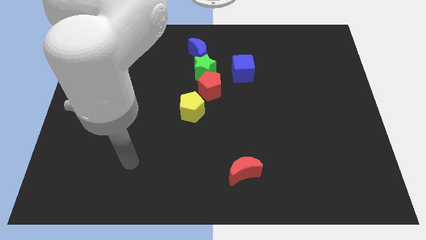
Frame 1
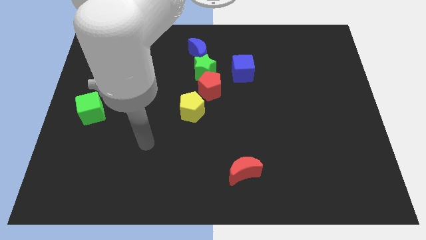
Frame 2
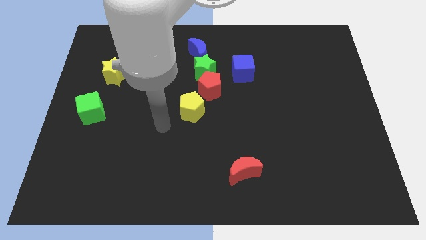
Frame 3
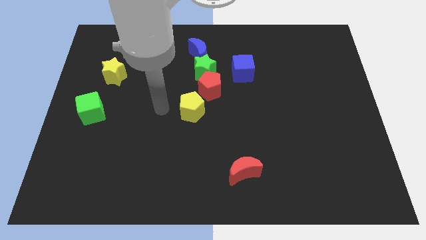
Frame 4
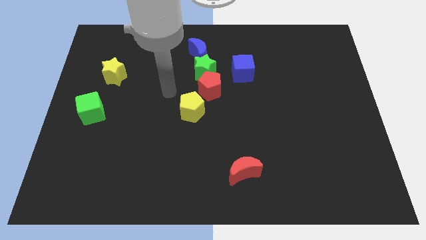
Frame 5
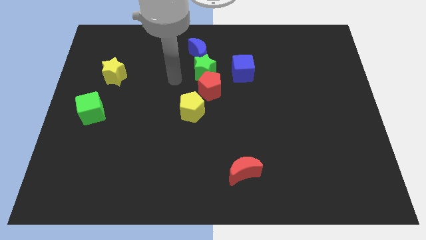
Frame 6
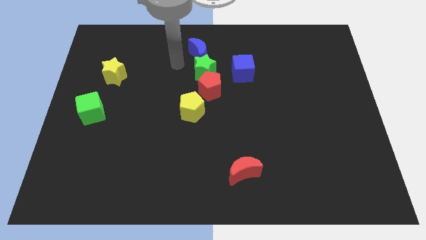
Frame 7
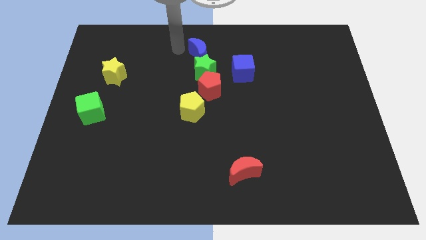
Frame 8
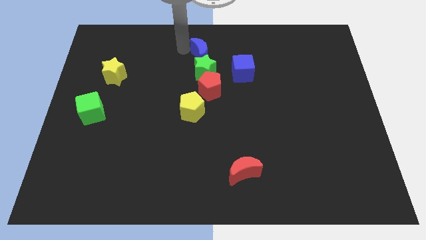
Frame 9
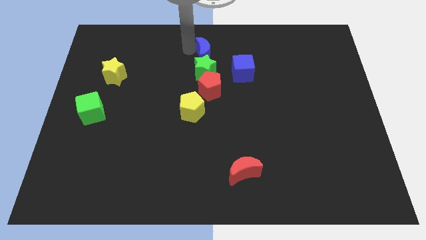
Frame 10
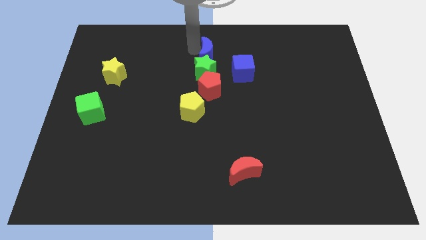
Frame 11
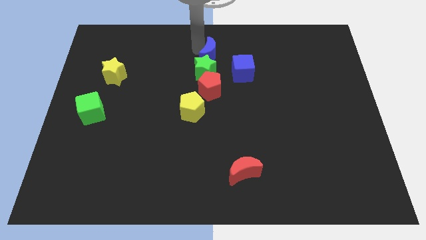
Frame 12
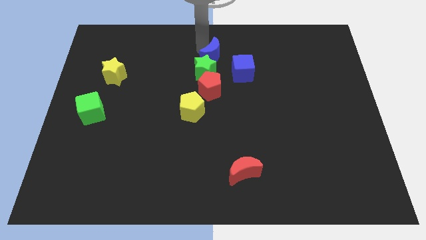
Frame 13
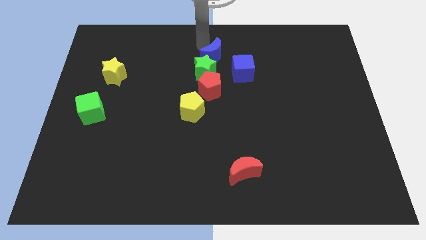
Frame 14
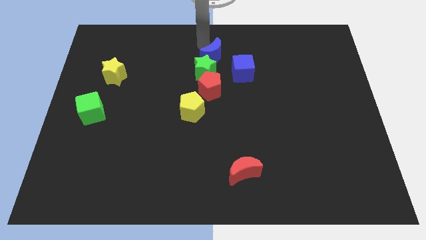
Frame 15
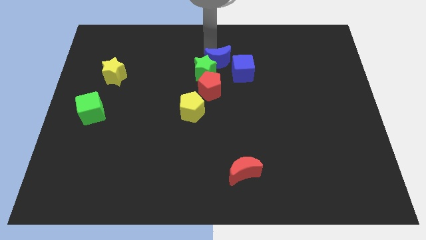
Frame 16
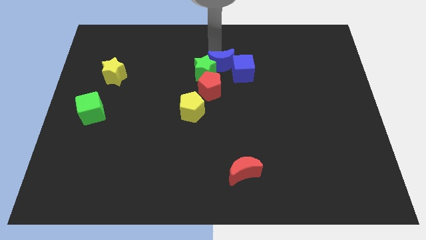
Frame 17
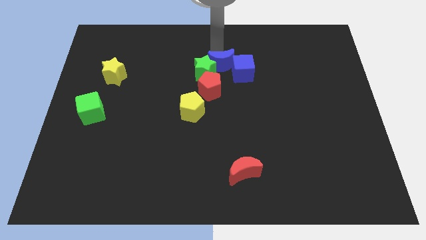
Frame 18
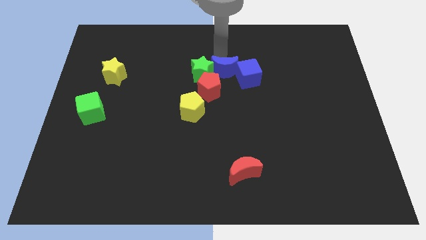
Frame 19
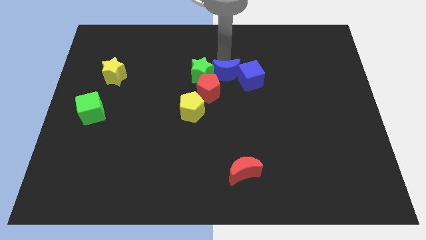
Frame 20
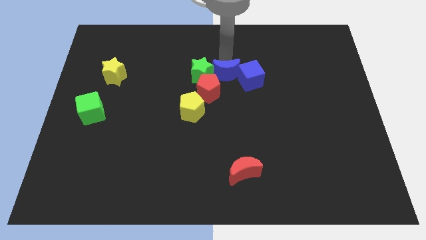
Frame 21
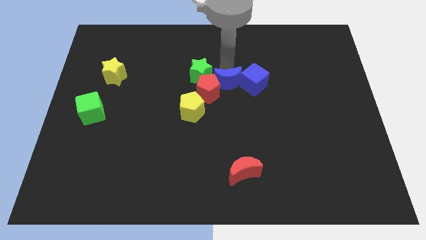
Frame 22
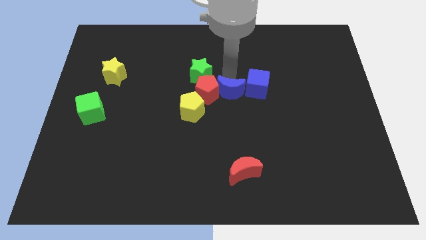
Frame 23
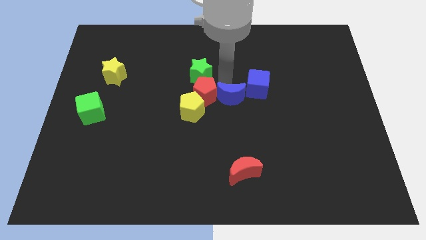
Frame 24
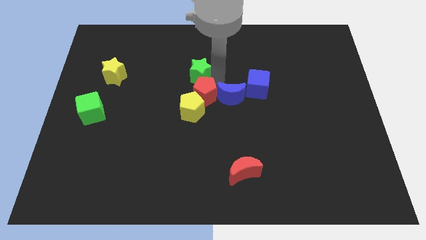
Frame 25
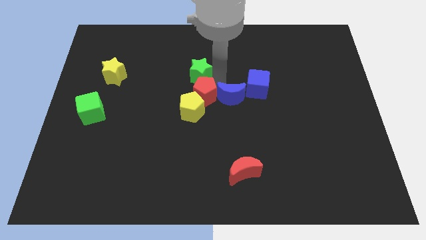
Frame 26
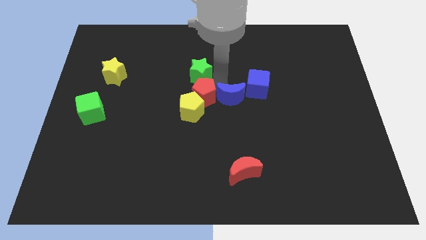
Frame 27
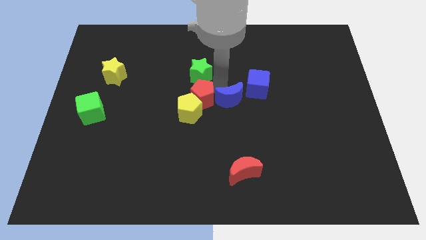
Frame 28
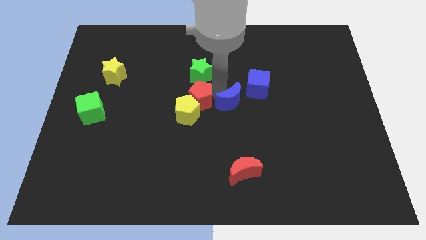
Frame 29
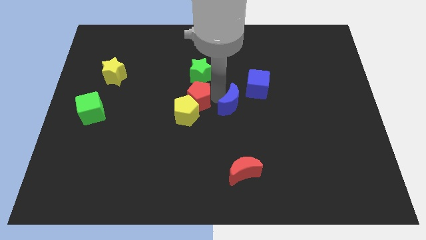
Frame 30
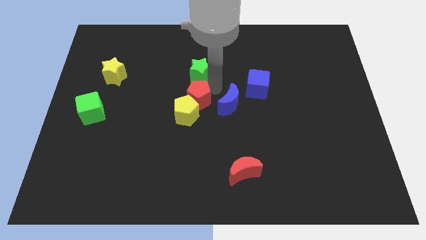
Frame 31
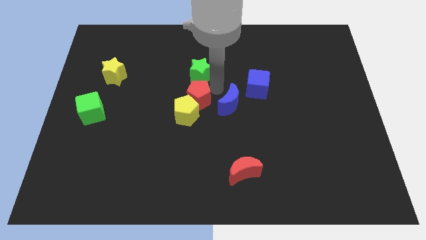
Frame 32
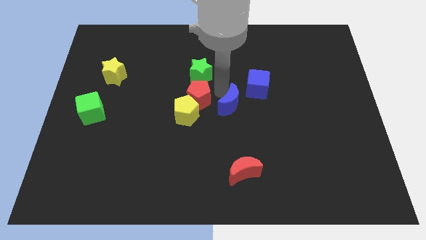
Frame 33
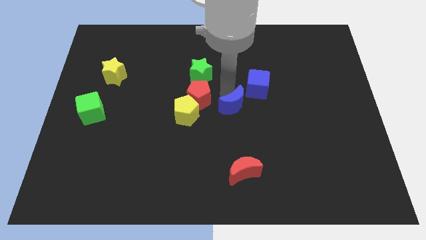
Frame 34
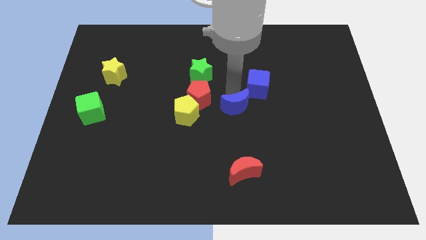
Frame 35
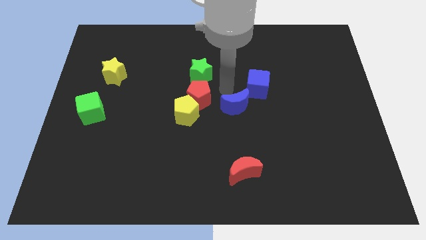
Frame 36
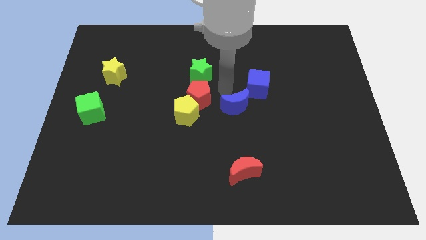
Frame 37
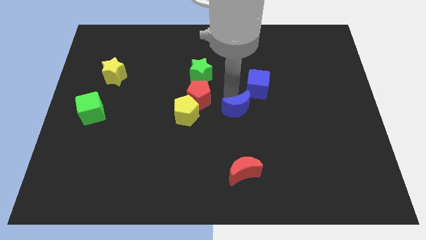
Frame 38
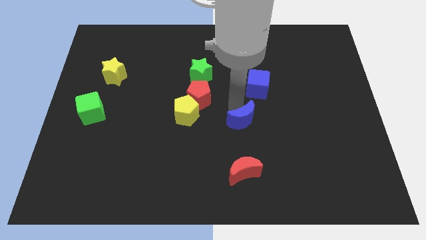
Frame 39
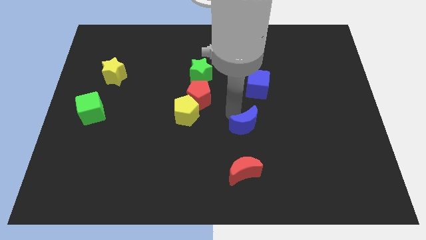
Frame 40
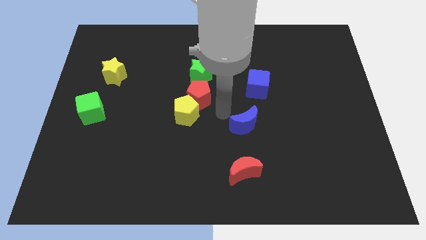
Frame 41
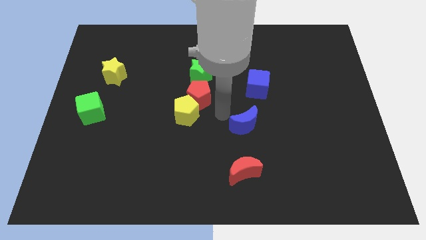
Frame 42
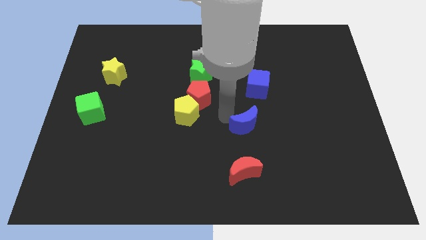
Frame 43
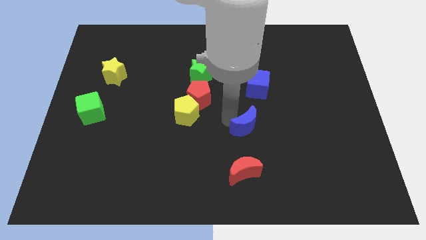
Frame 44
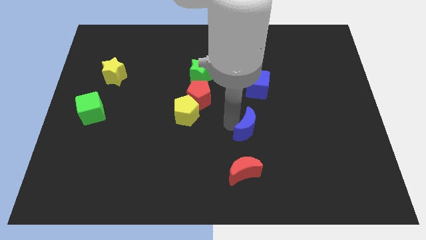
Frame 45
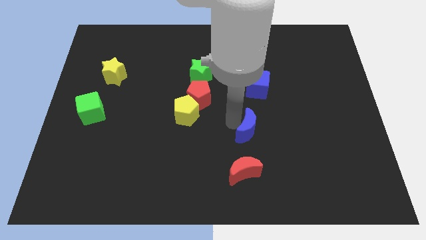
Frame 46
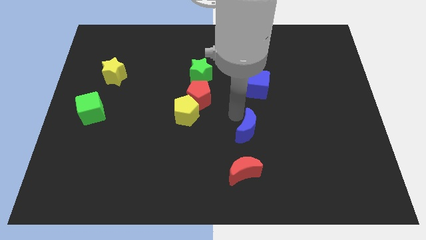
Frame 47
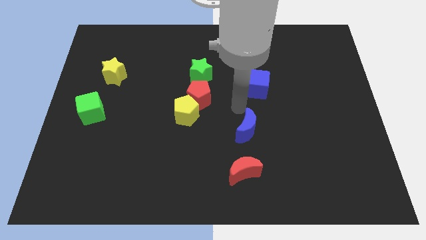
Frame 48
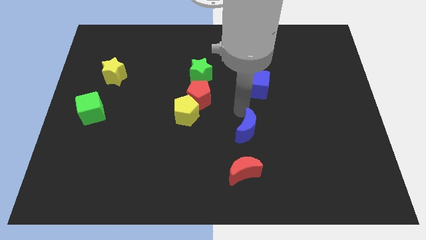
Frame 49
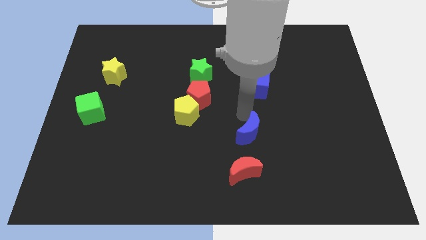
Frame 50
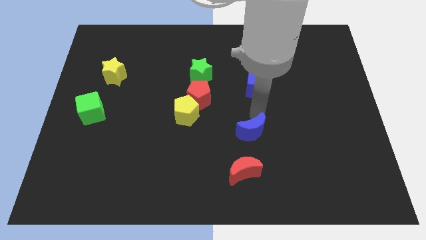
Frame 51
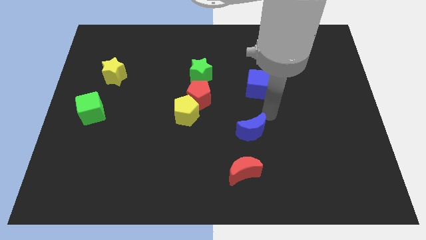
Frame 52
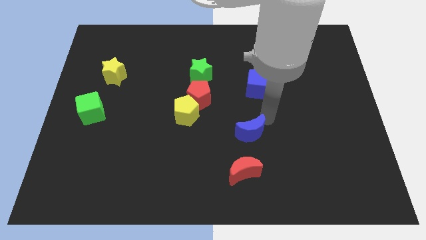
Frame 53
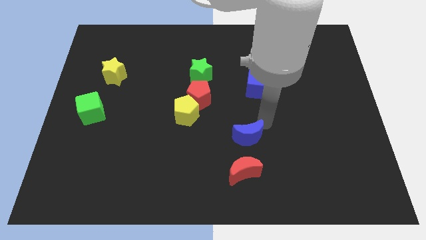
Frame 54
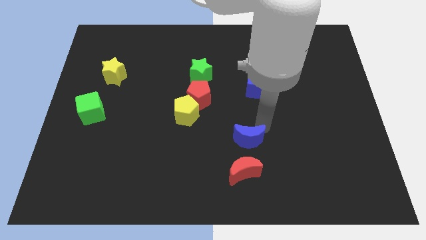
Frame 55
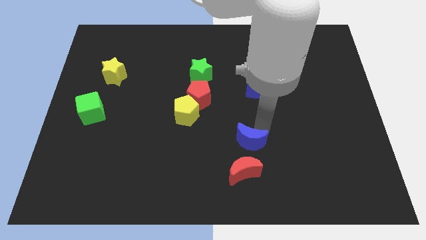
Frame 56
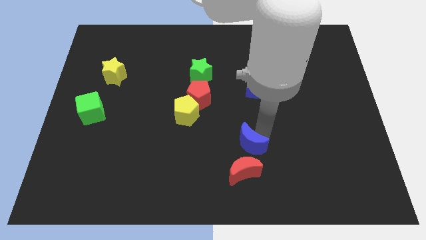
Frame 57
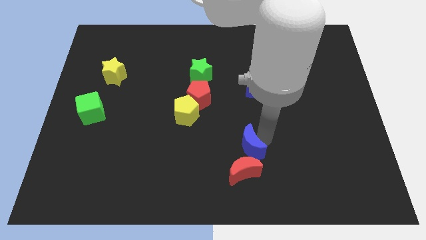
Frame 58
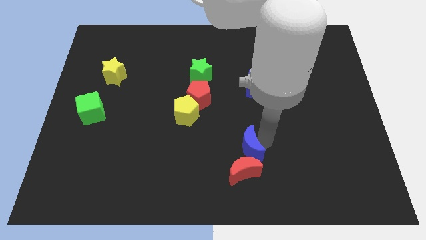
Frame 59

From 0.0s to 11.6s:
slide the blue moon next to the red moon

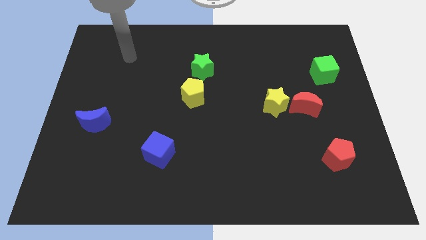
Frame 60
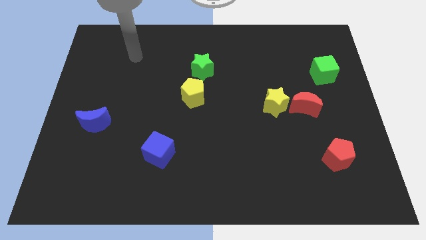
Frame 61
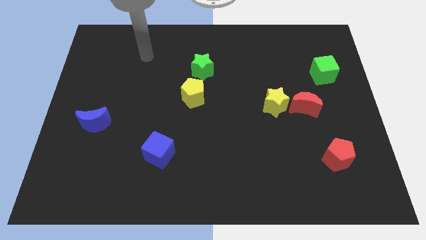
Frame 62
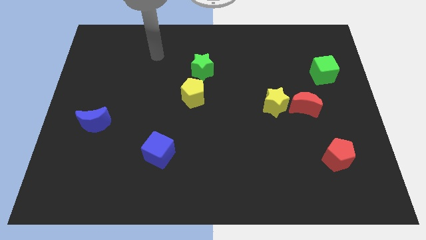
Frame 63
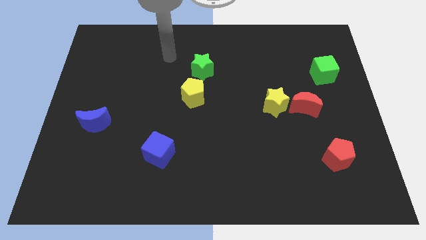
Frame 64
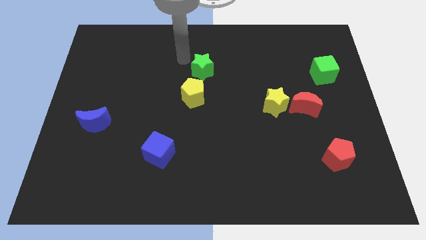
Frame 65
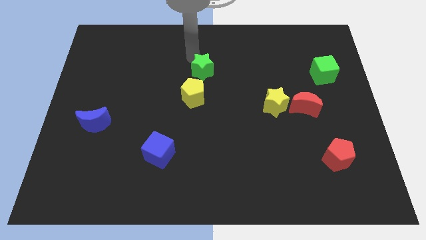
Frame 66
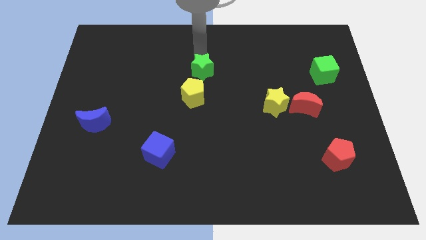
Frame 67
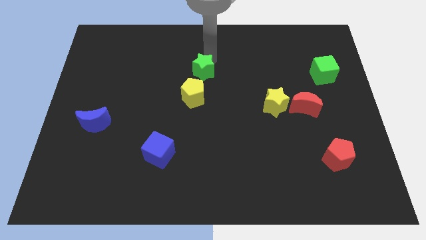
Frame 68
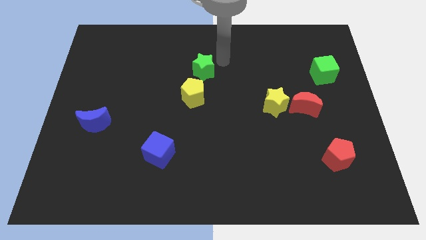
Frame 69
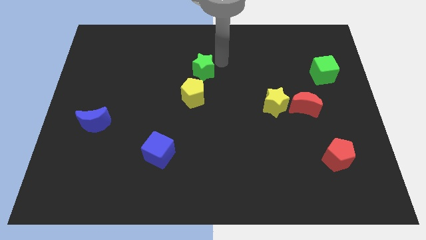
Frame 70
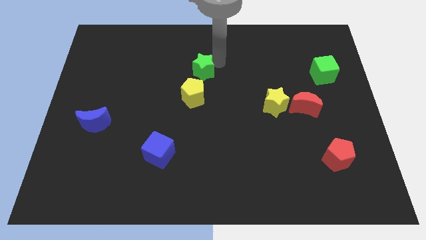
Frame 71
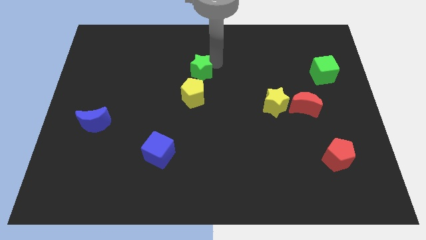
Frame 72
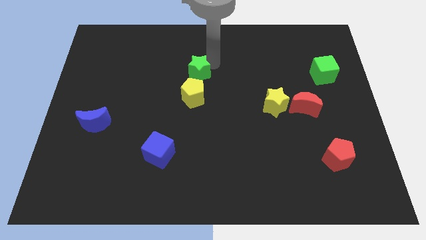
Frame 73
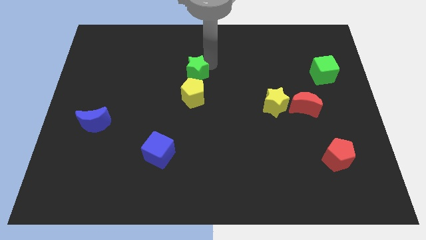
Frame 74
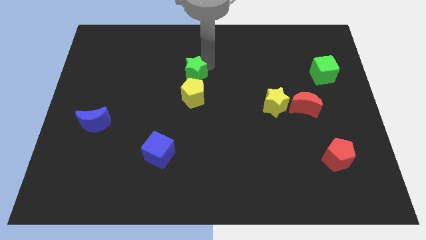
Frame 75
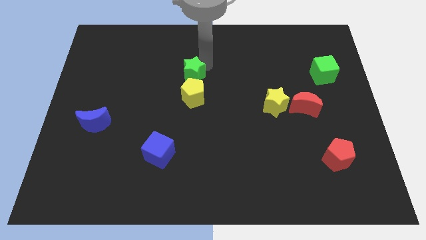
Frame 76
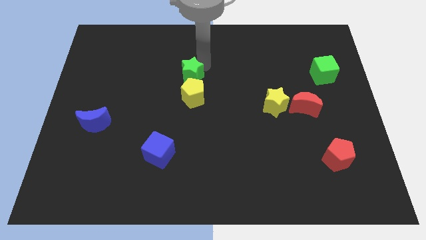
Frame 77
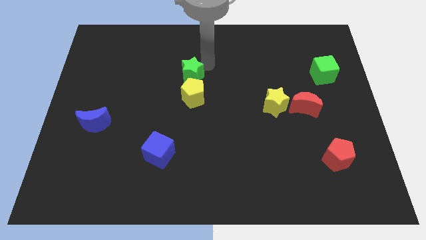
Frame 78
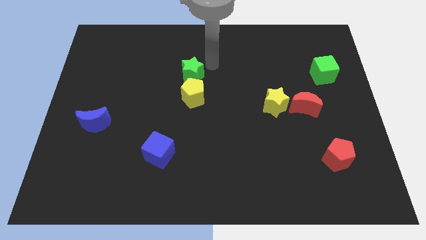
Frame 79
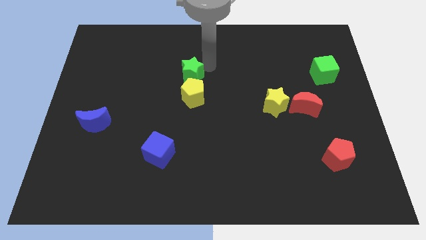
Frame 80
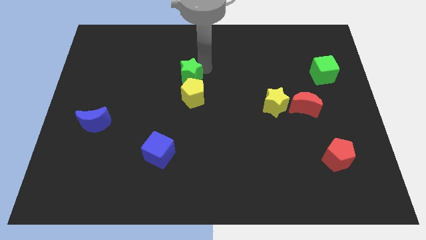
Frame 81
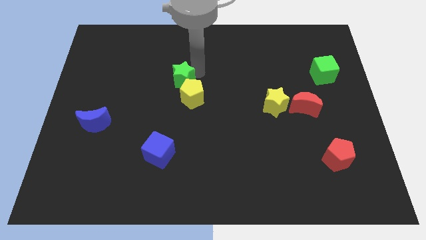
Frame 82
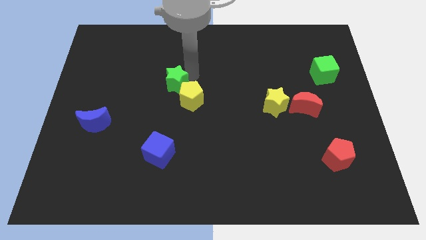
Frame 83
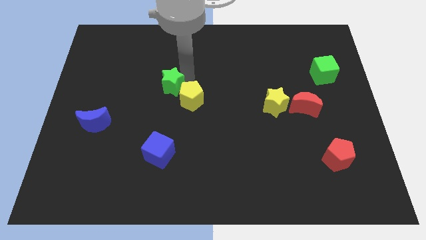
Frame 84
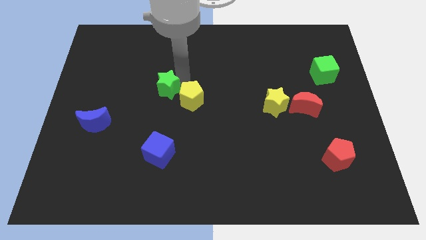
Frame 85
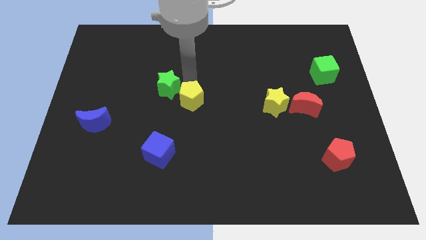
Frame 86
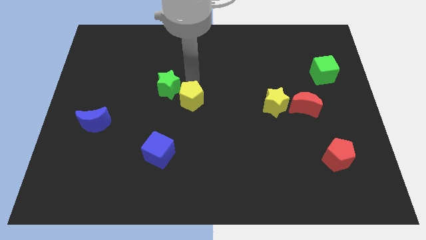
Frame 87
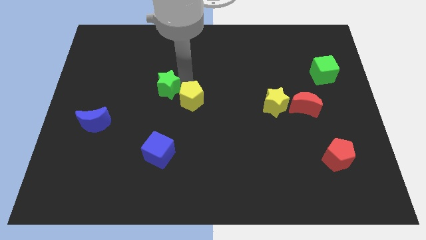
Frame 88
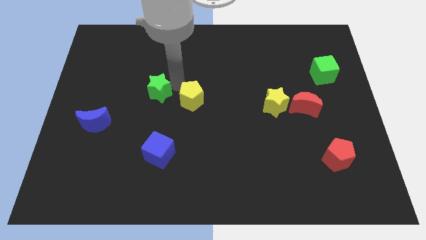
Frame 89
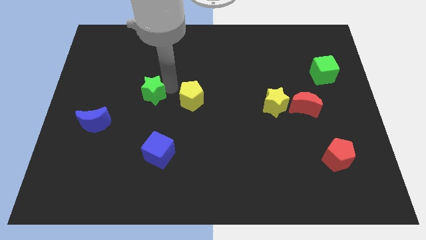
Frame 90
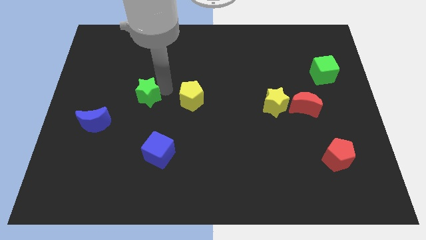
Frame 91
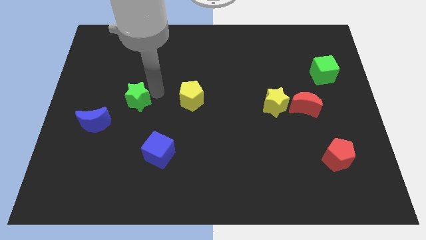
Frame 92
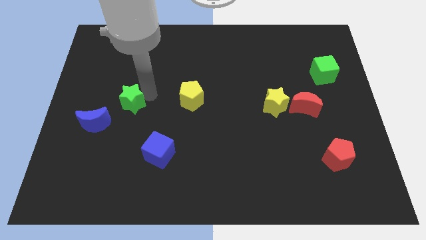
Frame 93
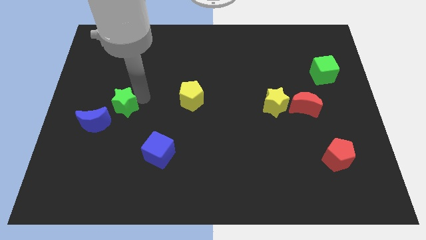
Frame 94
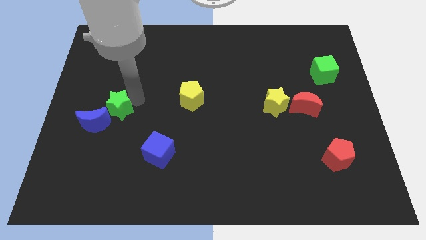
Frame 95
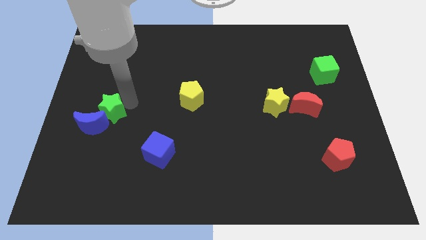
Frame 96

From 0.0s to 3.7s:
push the green star towards the blue moon
